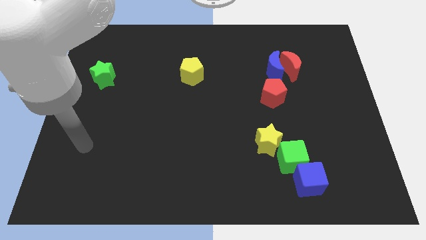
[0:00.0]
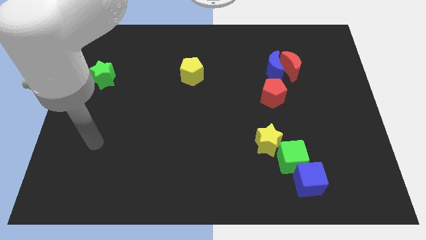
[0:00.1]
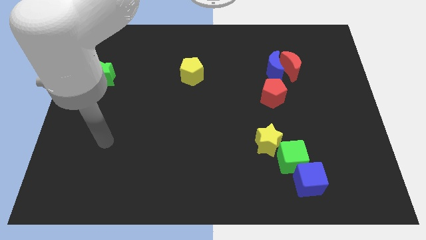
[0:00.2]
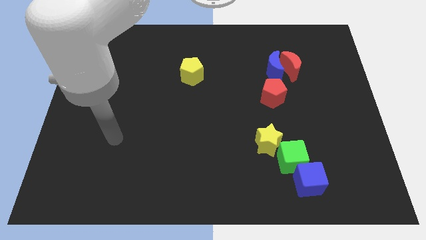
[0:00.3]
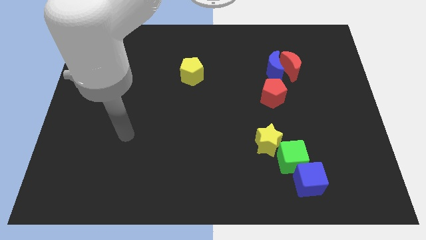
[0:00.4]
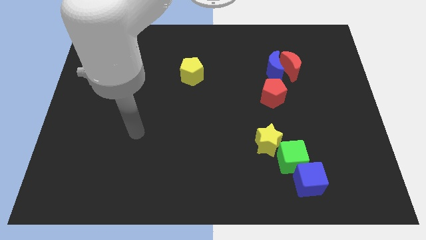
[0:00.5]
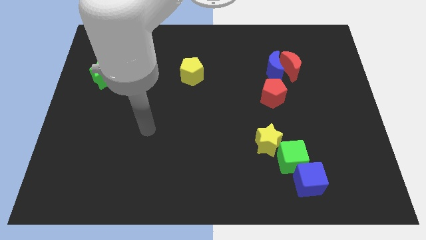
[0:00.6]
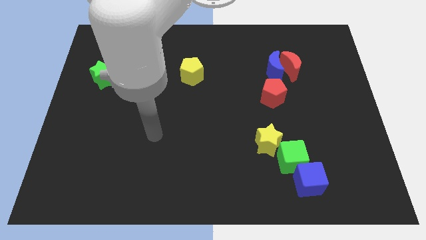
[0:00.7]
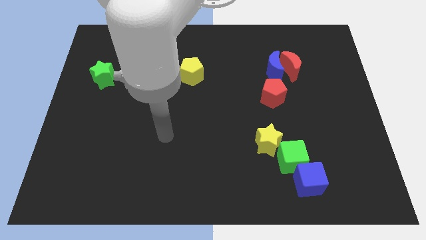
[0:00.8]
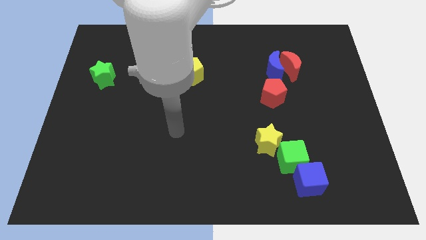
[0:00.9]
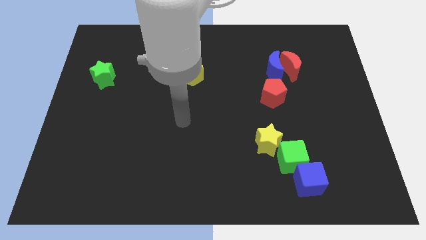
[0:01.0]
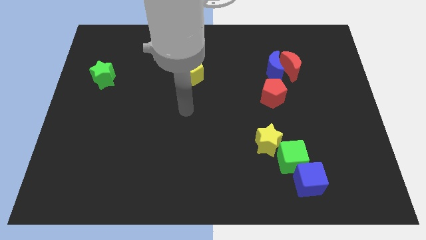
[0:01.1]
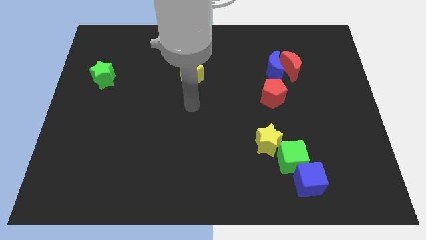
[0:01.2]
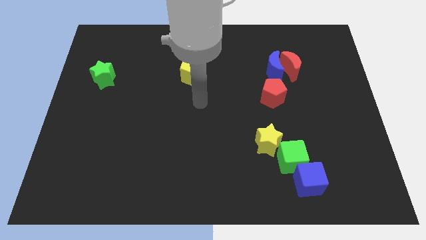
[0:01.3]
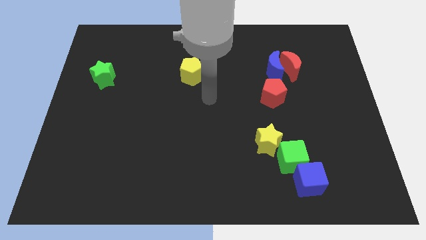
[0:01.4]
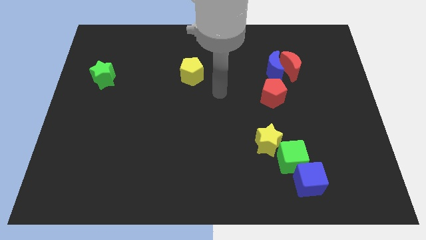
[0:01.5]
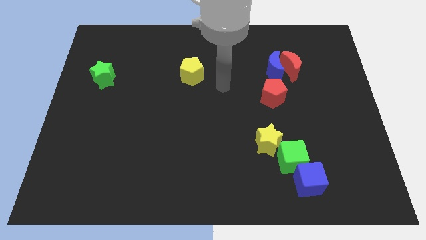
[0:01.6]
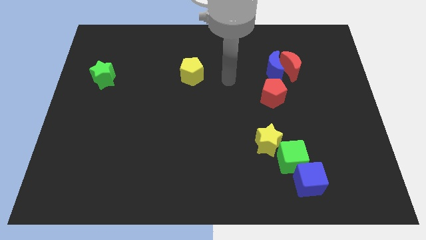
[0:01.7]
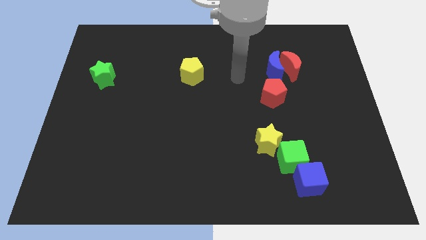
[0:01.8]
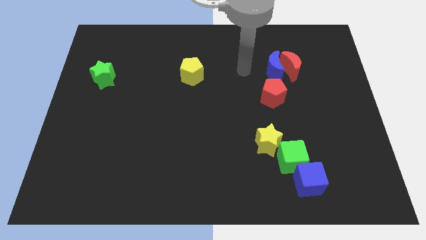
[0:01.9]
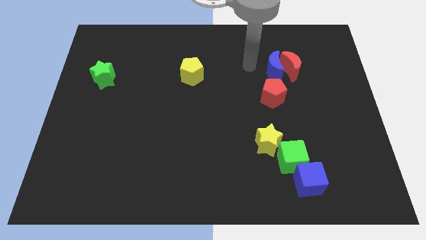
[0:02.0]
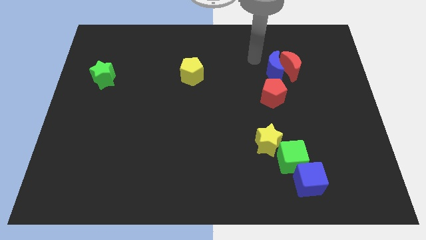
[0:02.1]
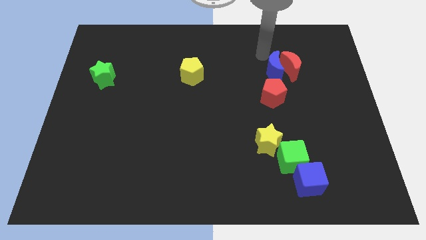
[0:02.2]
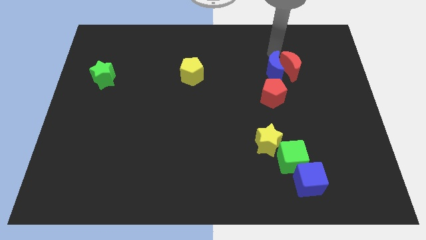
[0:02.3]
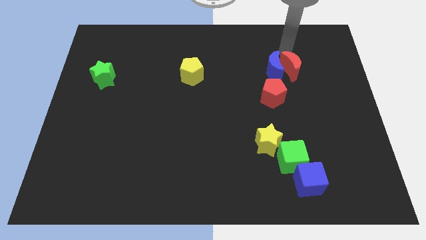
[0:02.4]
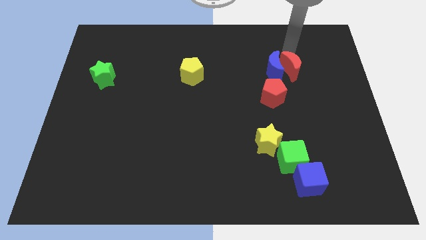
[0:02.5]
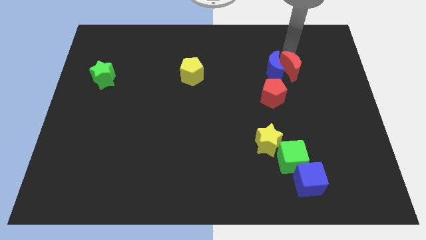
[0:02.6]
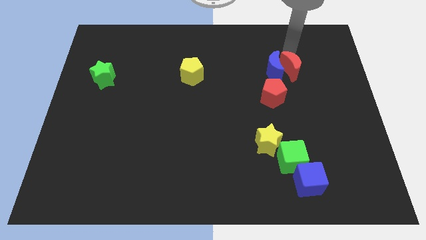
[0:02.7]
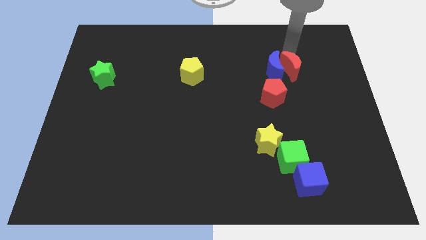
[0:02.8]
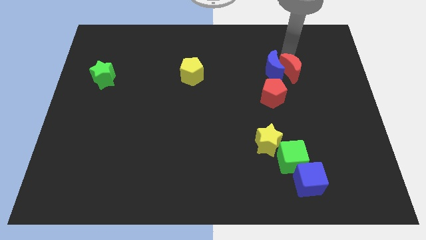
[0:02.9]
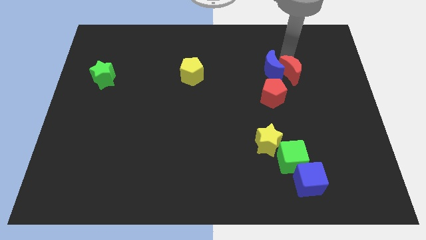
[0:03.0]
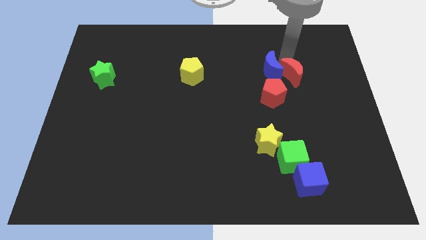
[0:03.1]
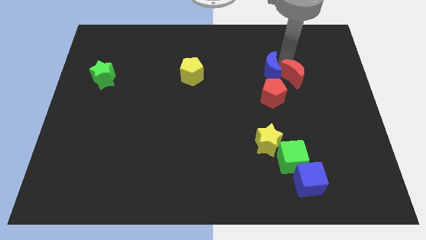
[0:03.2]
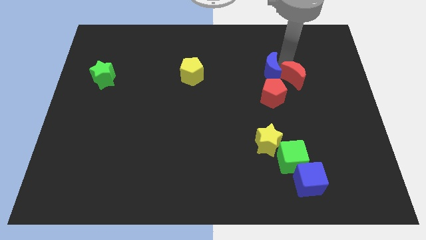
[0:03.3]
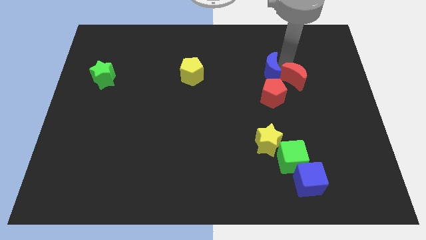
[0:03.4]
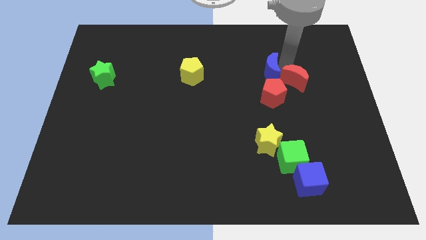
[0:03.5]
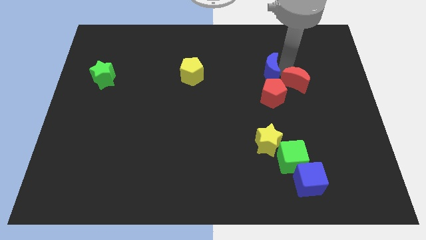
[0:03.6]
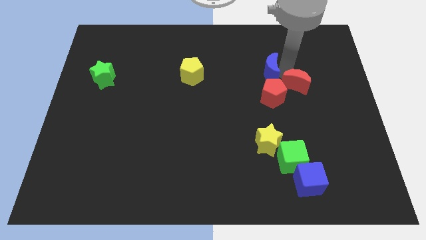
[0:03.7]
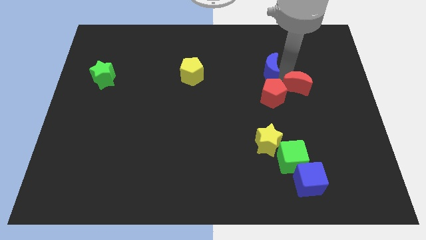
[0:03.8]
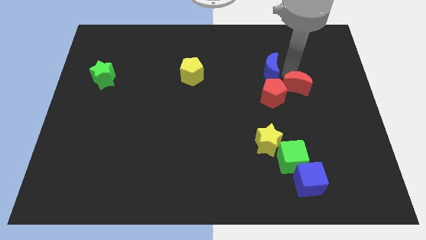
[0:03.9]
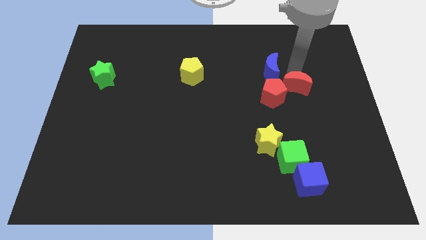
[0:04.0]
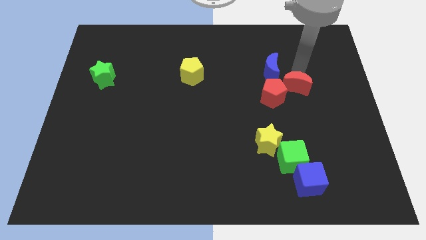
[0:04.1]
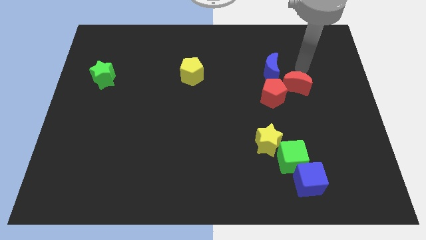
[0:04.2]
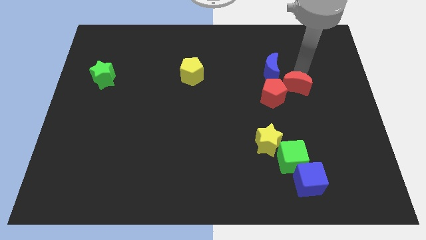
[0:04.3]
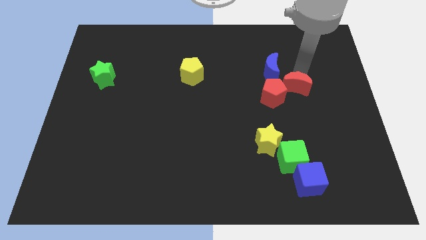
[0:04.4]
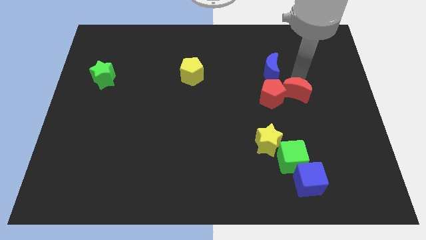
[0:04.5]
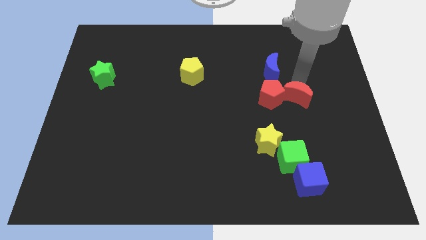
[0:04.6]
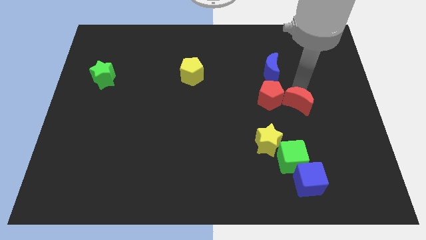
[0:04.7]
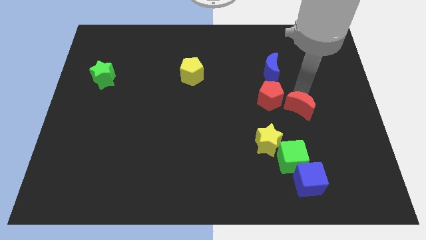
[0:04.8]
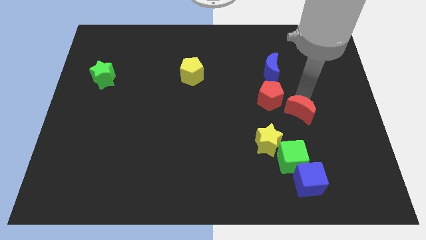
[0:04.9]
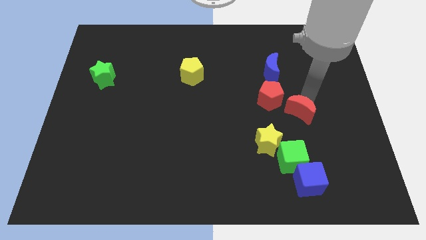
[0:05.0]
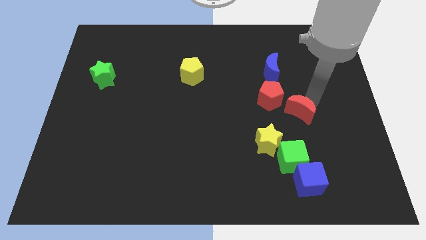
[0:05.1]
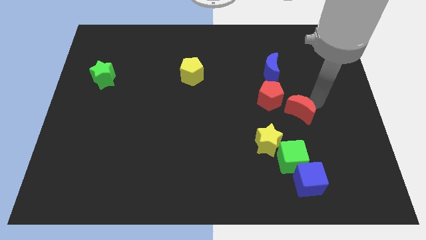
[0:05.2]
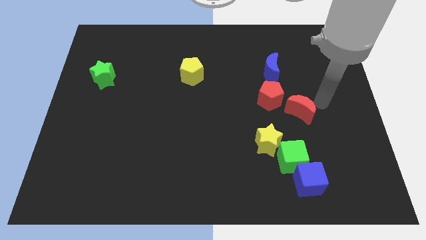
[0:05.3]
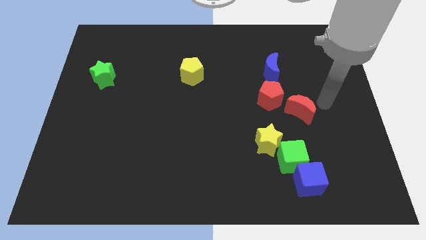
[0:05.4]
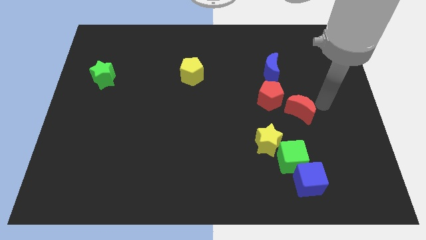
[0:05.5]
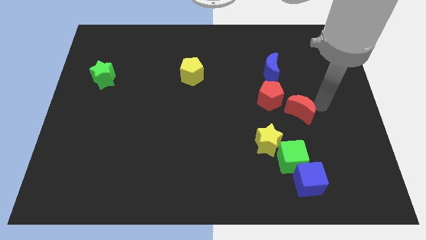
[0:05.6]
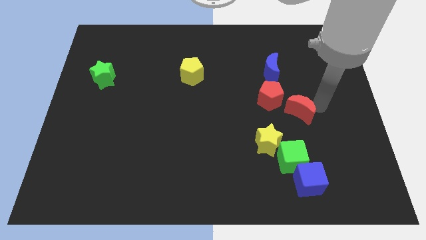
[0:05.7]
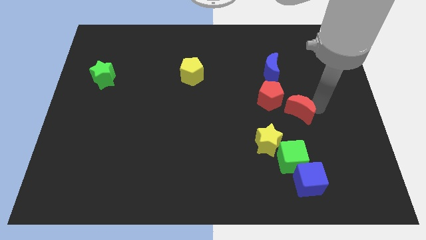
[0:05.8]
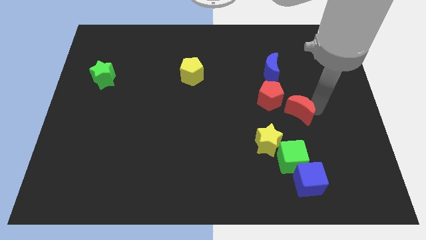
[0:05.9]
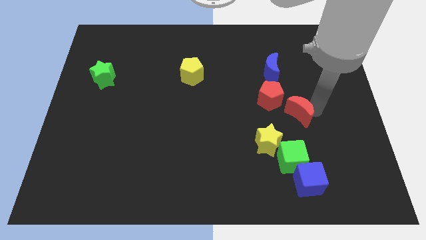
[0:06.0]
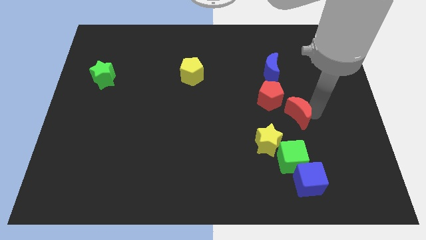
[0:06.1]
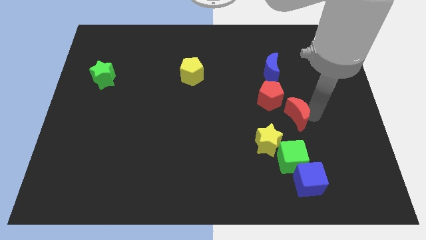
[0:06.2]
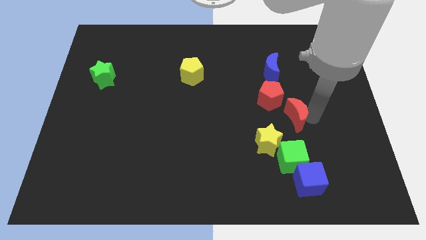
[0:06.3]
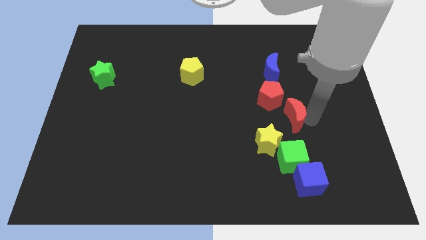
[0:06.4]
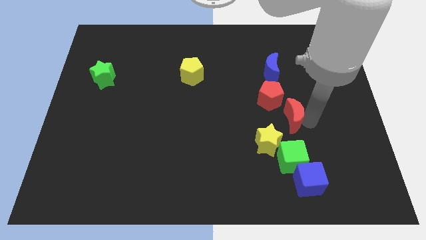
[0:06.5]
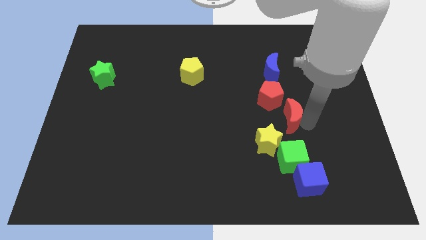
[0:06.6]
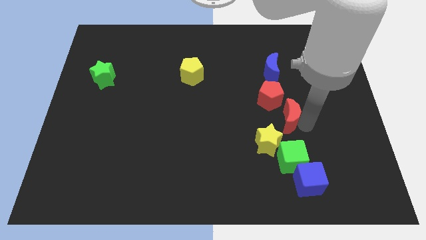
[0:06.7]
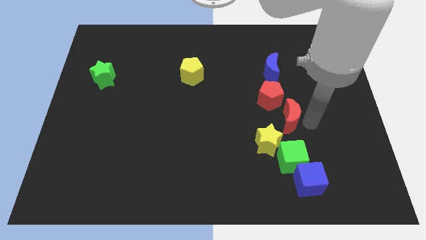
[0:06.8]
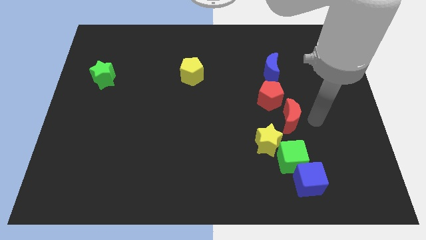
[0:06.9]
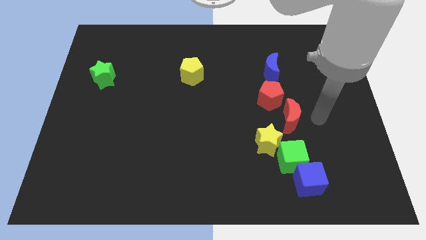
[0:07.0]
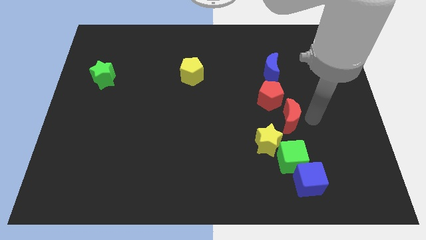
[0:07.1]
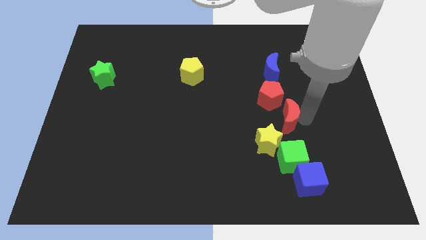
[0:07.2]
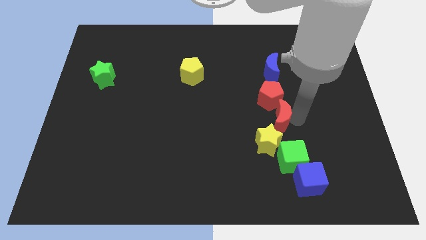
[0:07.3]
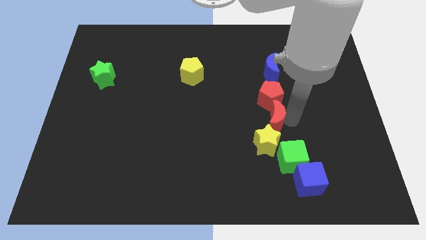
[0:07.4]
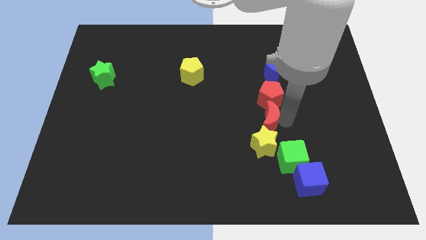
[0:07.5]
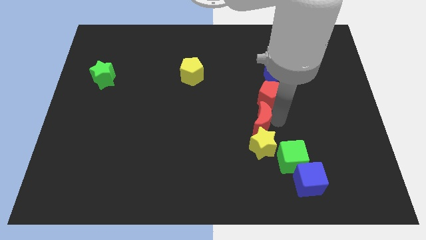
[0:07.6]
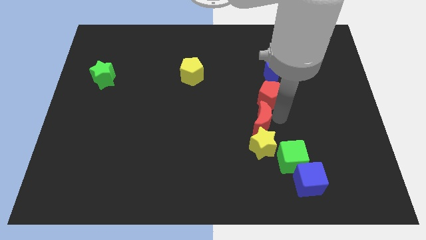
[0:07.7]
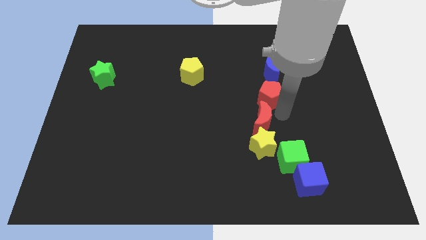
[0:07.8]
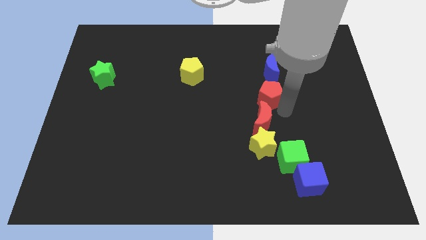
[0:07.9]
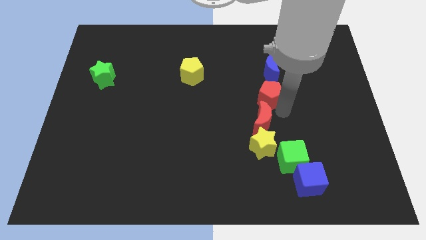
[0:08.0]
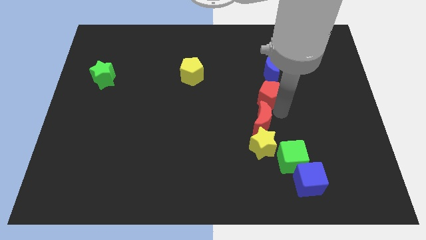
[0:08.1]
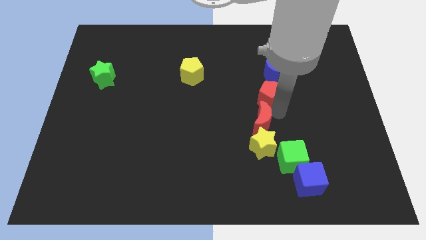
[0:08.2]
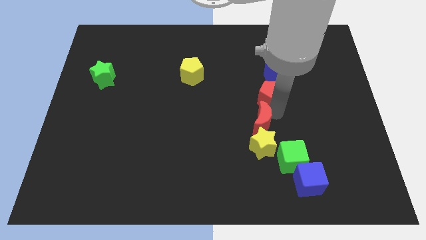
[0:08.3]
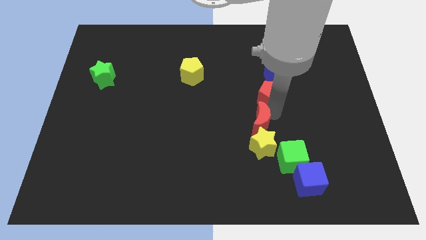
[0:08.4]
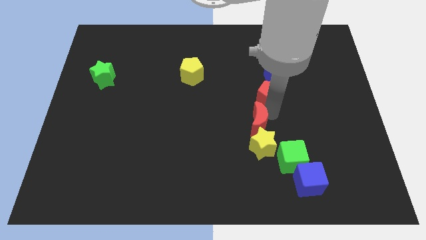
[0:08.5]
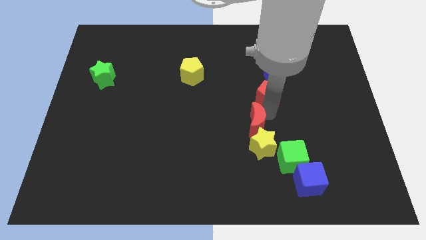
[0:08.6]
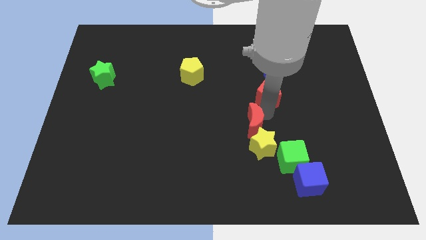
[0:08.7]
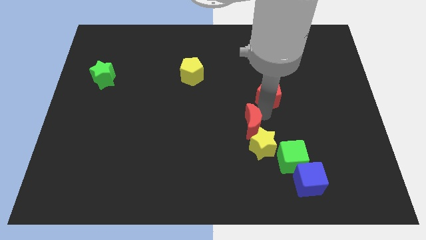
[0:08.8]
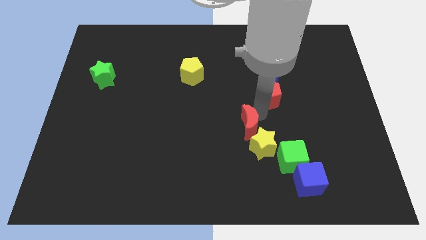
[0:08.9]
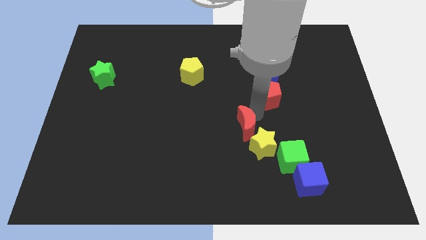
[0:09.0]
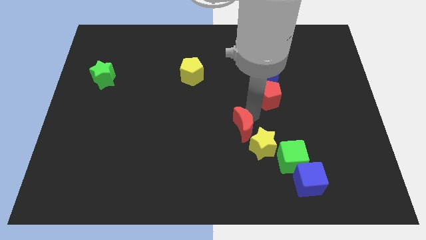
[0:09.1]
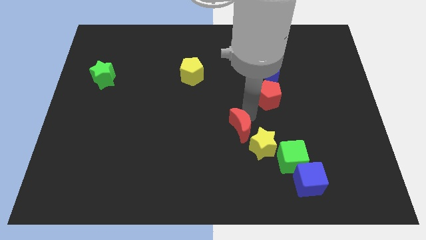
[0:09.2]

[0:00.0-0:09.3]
move the red moon to the left of the yellow star
